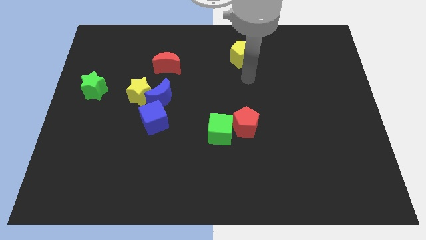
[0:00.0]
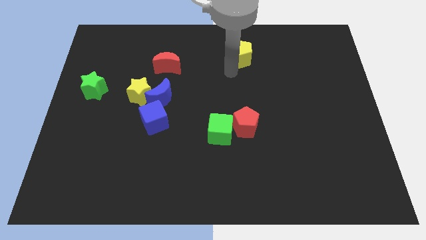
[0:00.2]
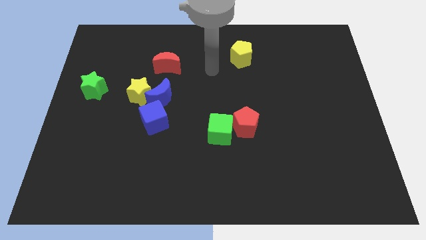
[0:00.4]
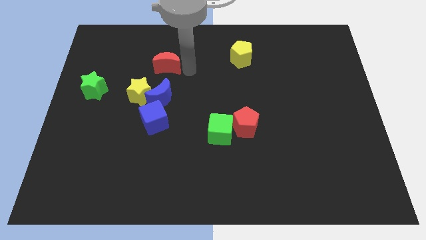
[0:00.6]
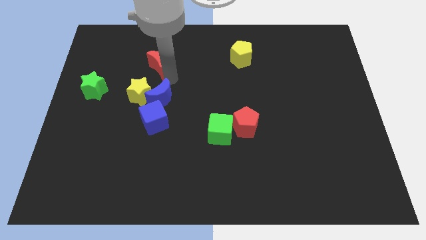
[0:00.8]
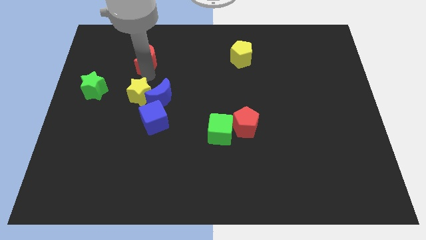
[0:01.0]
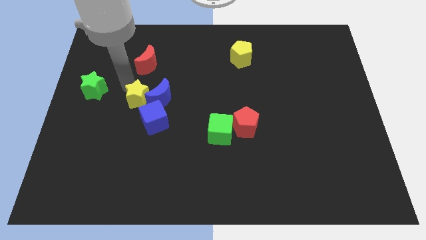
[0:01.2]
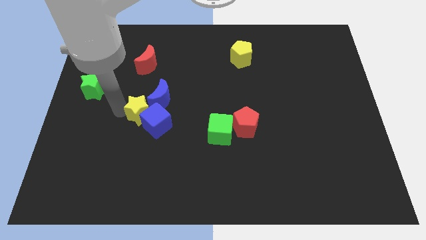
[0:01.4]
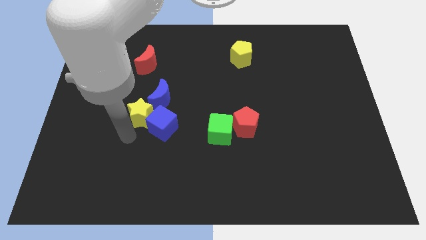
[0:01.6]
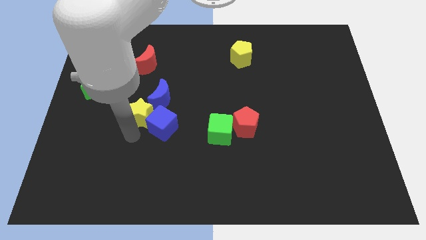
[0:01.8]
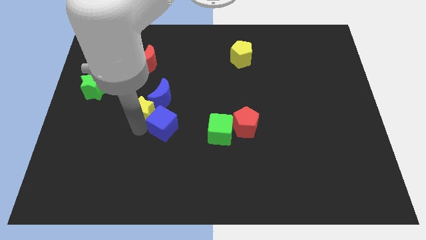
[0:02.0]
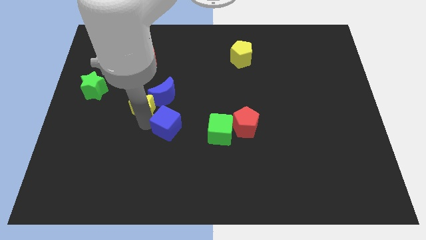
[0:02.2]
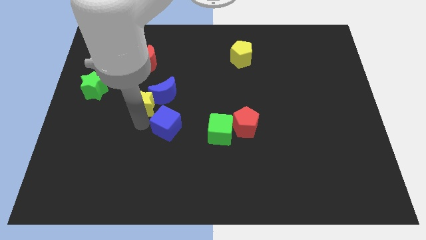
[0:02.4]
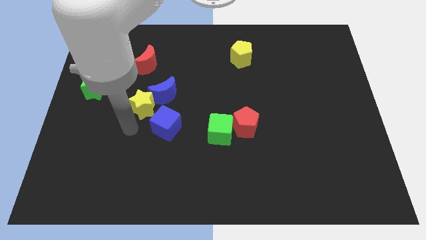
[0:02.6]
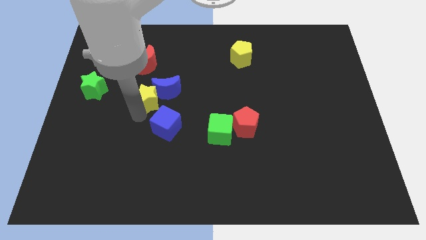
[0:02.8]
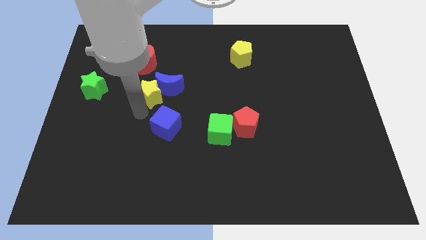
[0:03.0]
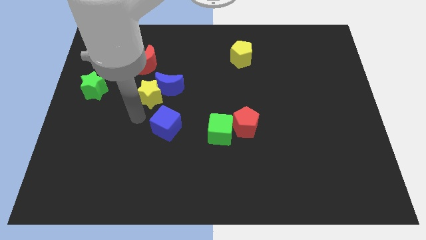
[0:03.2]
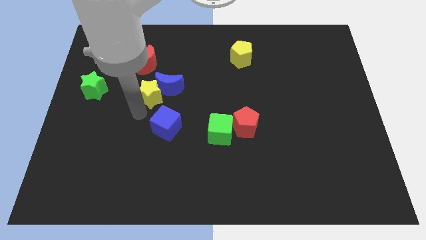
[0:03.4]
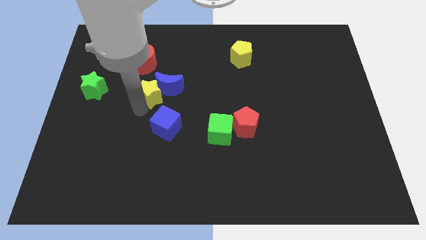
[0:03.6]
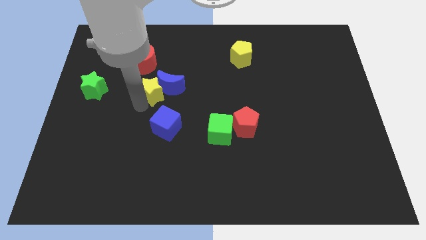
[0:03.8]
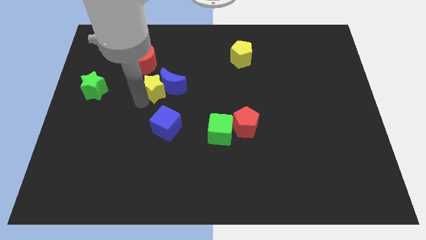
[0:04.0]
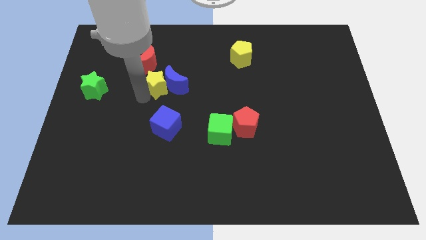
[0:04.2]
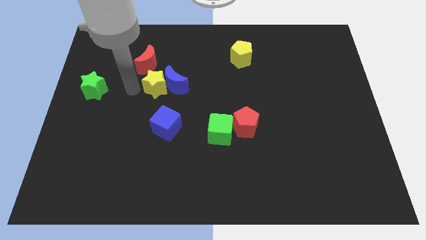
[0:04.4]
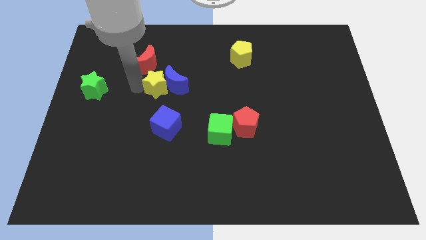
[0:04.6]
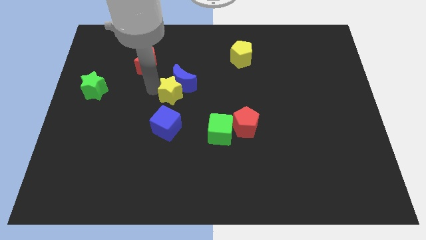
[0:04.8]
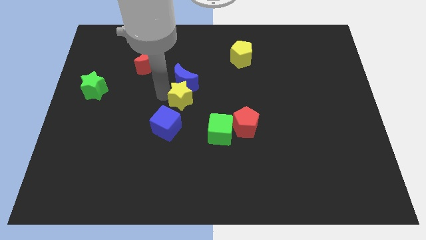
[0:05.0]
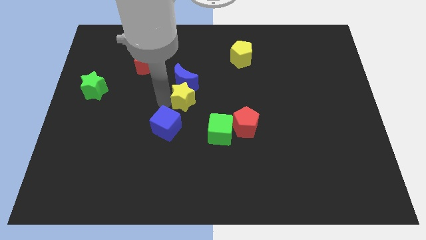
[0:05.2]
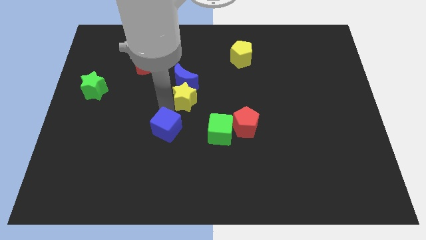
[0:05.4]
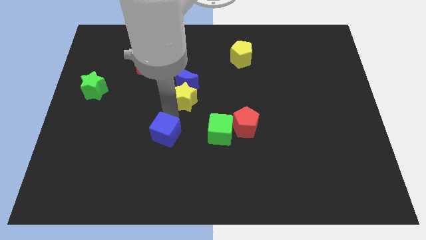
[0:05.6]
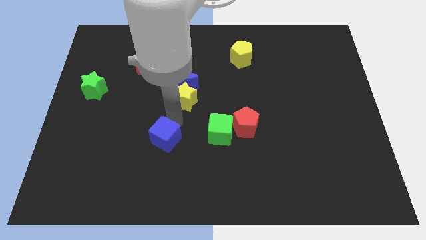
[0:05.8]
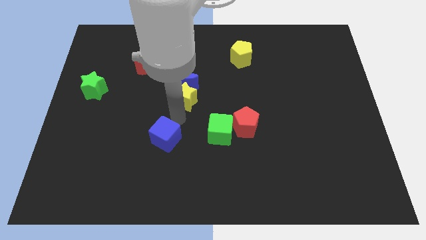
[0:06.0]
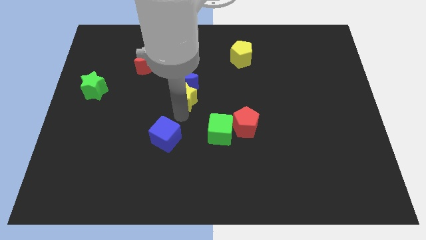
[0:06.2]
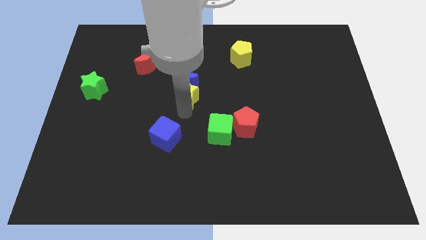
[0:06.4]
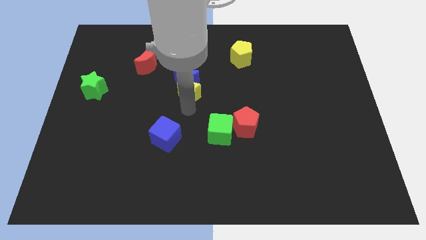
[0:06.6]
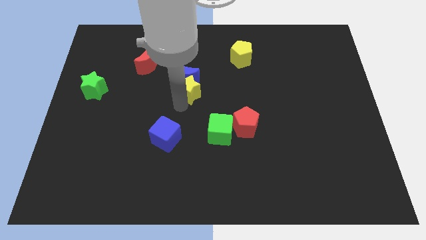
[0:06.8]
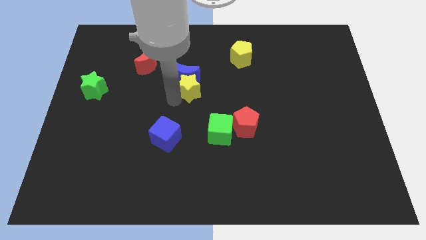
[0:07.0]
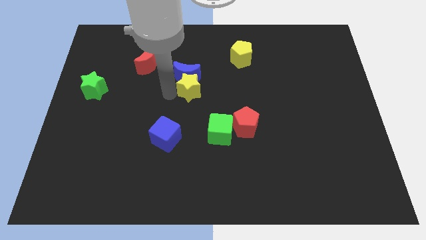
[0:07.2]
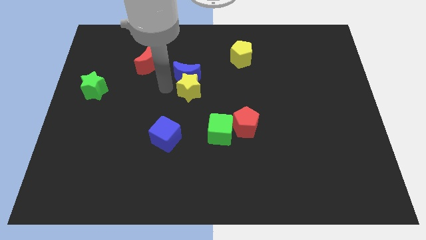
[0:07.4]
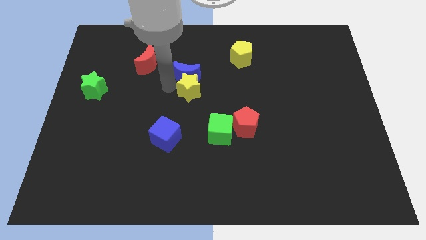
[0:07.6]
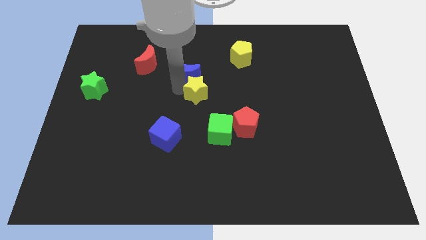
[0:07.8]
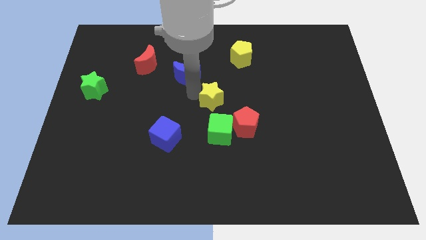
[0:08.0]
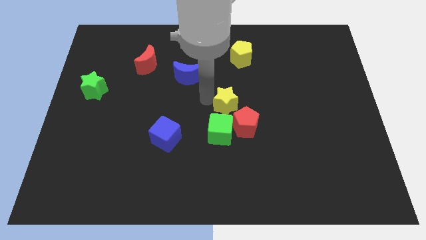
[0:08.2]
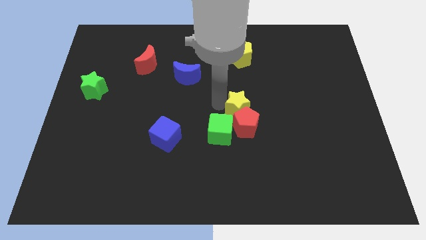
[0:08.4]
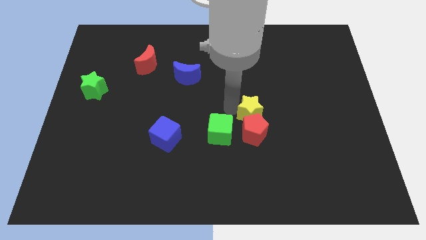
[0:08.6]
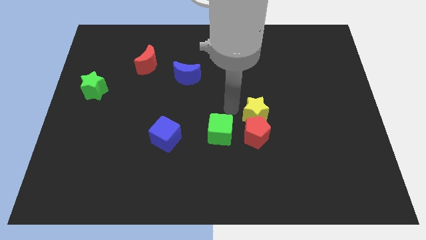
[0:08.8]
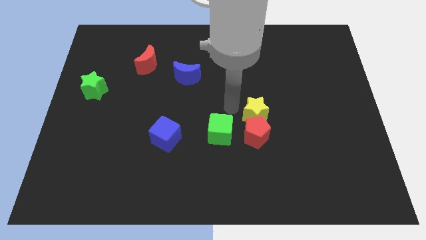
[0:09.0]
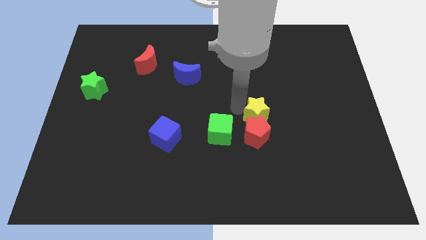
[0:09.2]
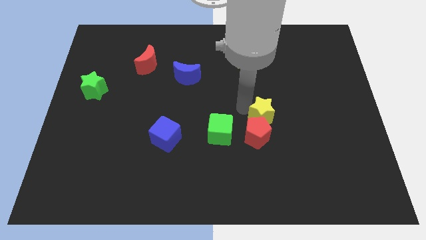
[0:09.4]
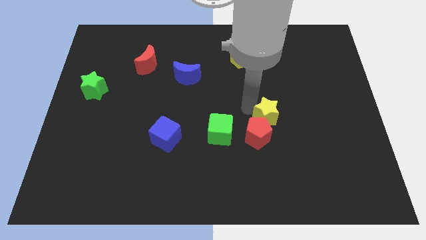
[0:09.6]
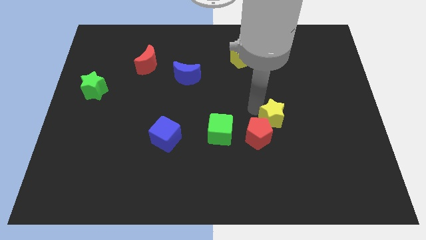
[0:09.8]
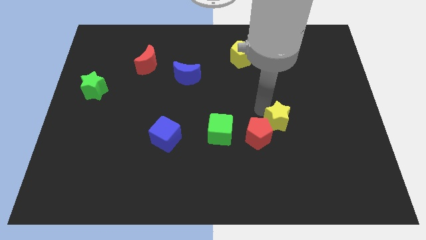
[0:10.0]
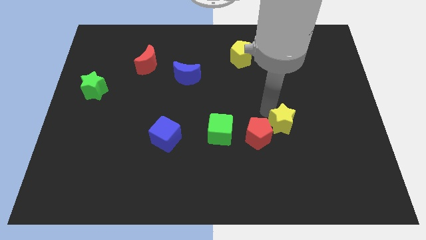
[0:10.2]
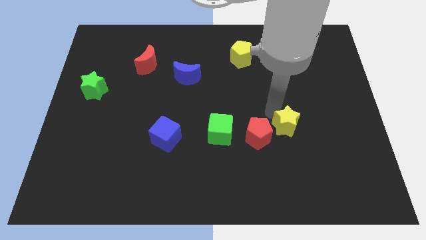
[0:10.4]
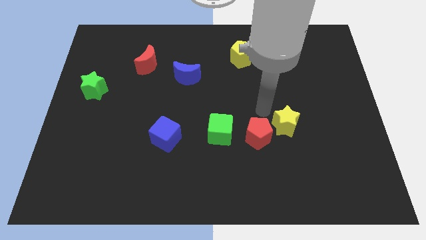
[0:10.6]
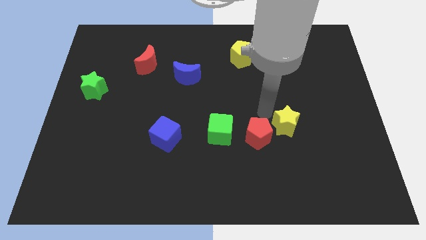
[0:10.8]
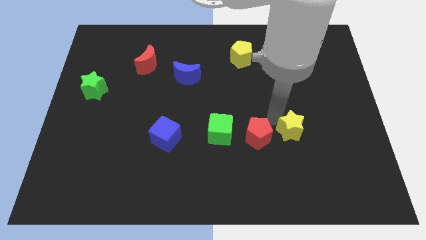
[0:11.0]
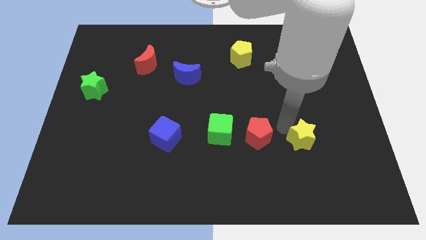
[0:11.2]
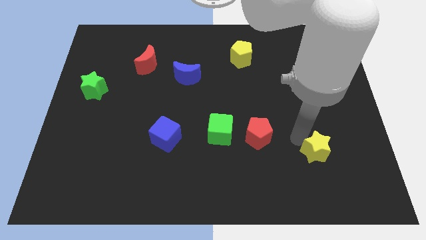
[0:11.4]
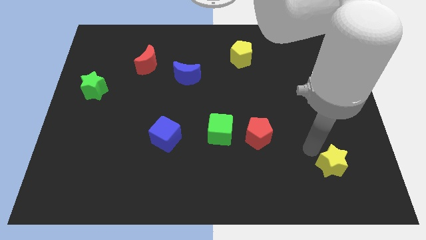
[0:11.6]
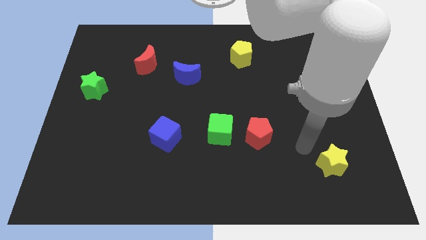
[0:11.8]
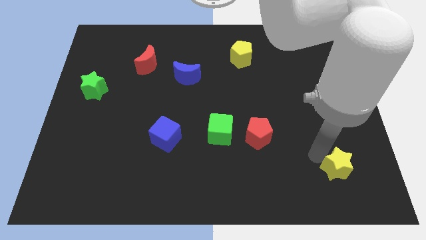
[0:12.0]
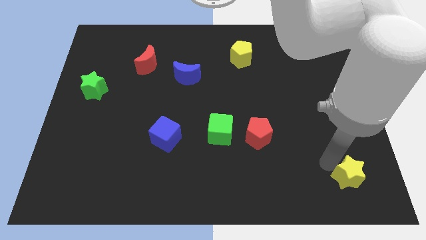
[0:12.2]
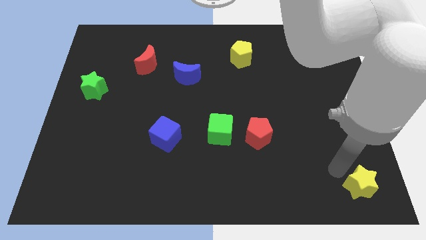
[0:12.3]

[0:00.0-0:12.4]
move the yellow star to the bottom right

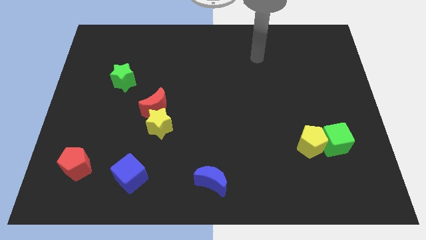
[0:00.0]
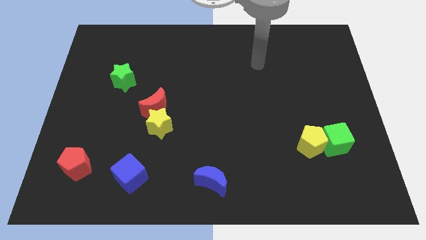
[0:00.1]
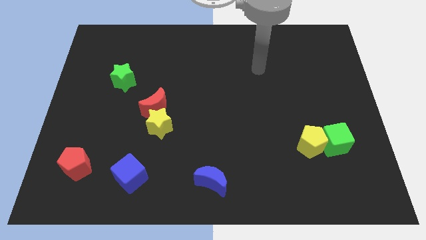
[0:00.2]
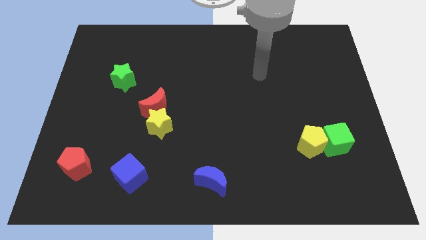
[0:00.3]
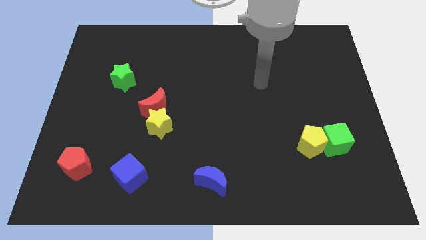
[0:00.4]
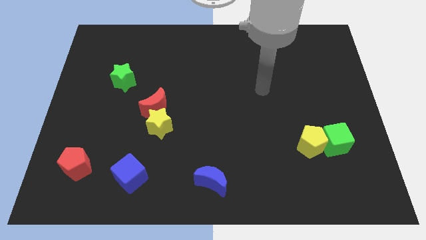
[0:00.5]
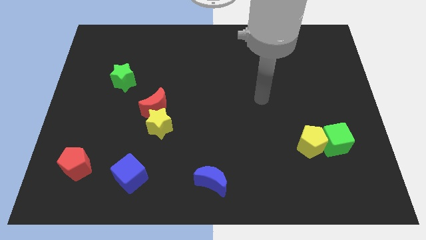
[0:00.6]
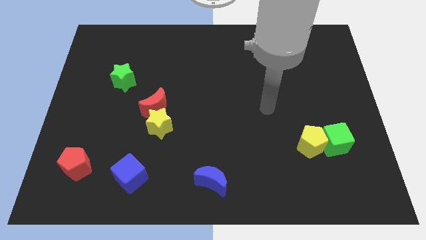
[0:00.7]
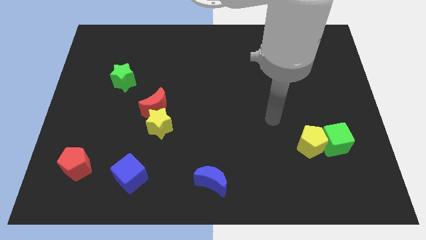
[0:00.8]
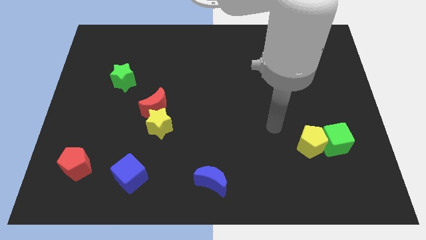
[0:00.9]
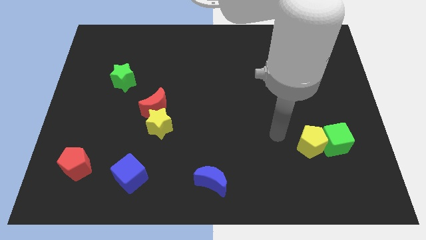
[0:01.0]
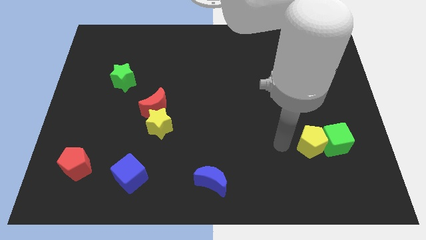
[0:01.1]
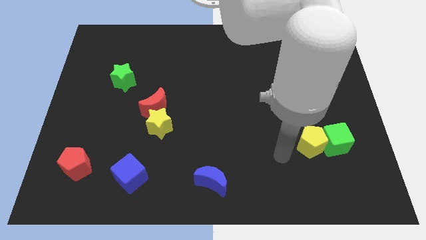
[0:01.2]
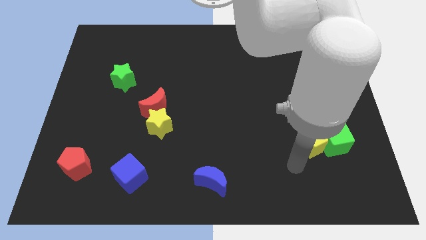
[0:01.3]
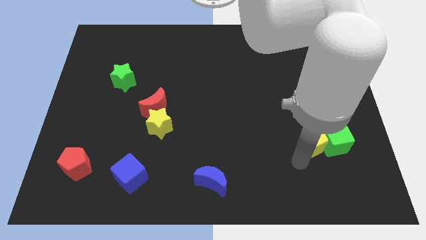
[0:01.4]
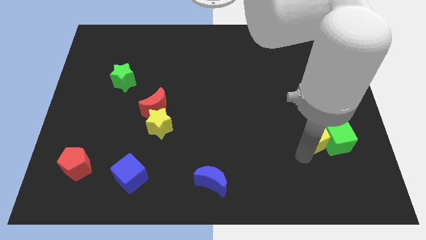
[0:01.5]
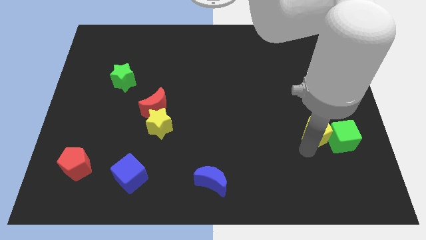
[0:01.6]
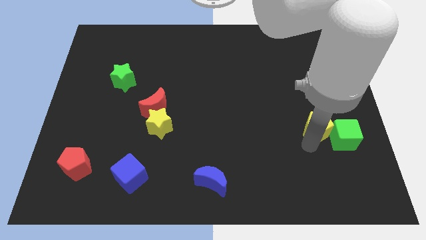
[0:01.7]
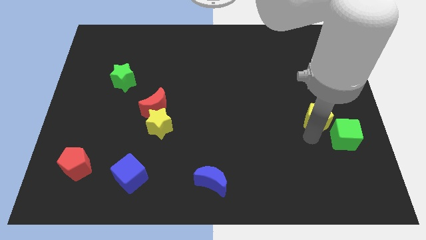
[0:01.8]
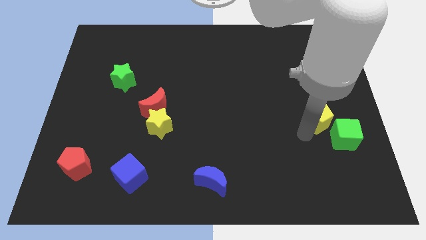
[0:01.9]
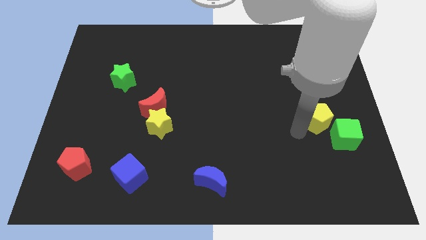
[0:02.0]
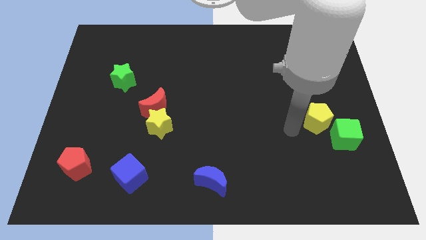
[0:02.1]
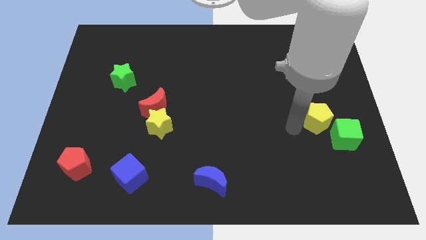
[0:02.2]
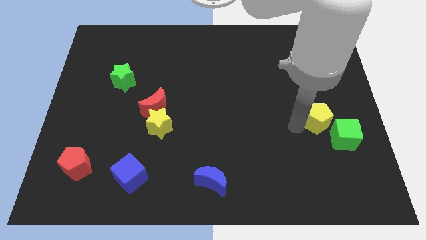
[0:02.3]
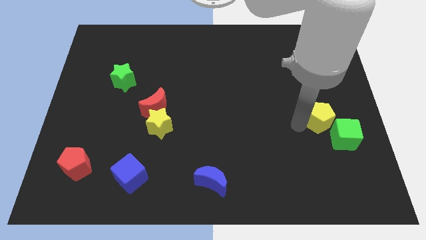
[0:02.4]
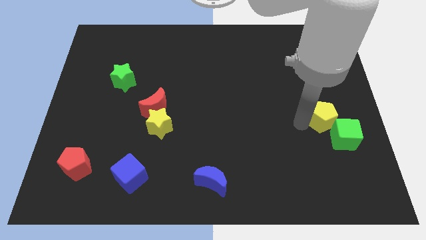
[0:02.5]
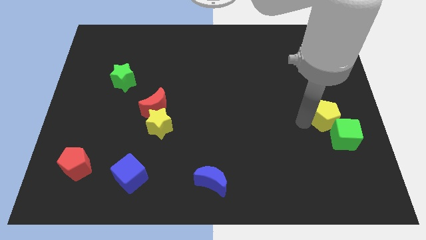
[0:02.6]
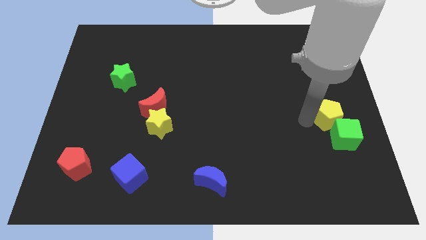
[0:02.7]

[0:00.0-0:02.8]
move the yellow pentagon to the right side
